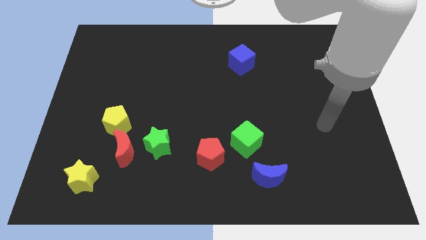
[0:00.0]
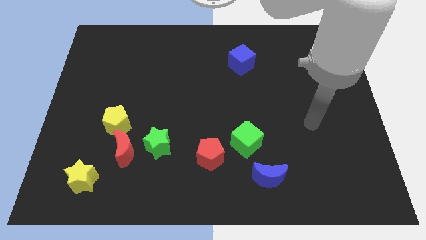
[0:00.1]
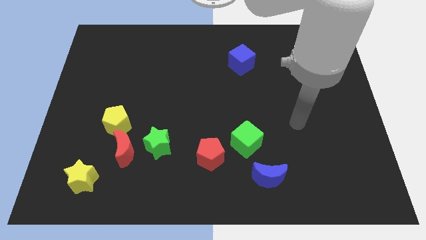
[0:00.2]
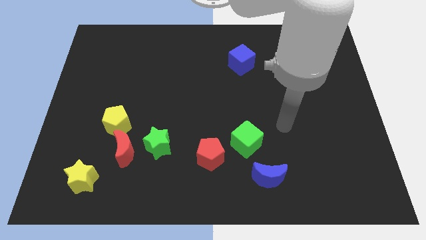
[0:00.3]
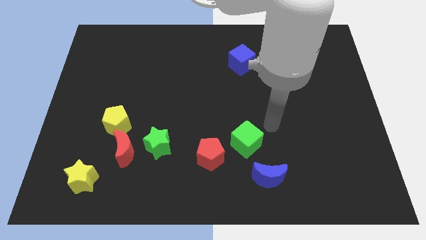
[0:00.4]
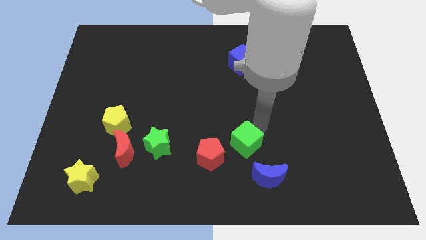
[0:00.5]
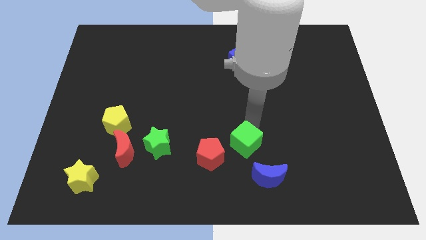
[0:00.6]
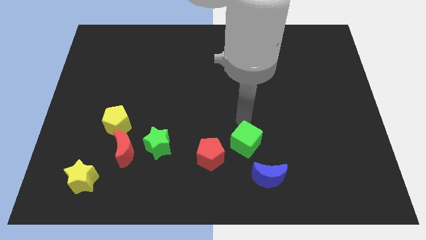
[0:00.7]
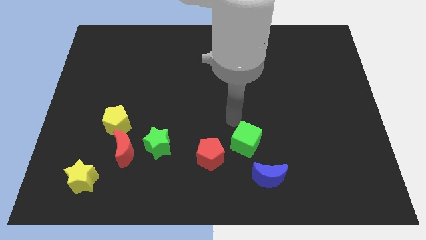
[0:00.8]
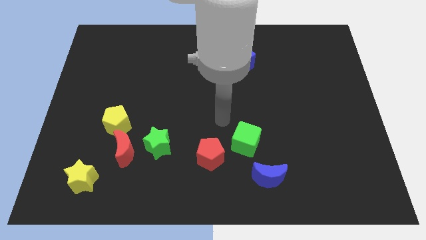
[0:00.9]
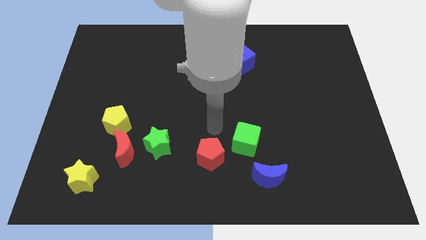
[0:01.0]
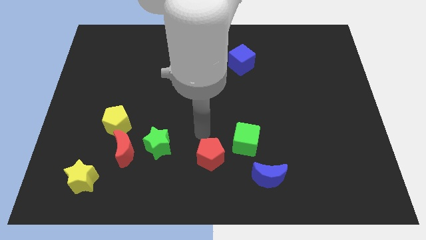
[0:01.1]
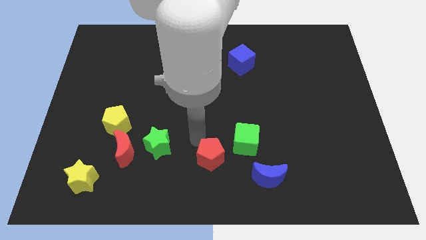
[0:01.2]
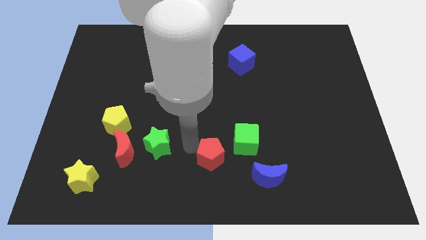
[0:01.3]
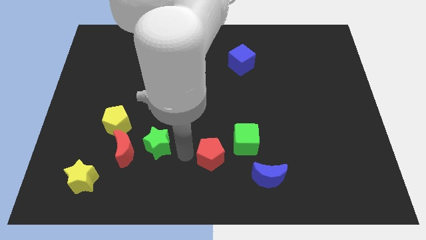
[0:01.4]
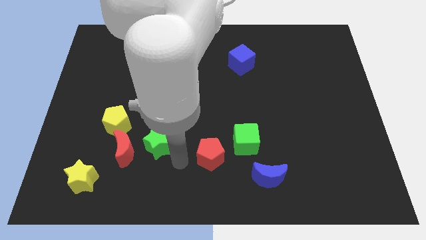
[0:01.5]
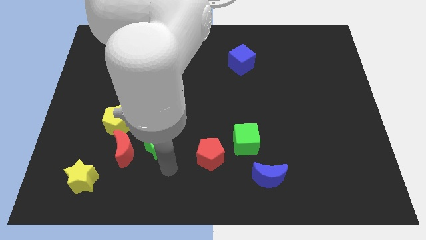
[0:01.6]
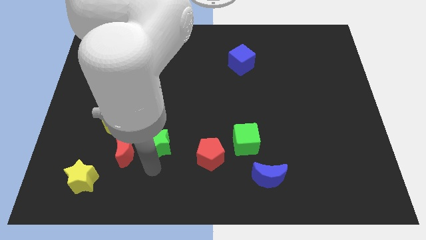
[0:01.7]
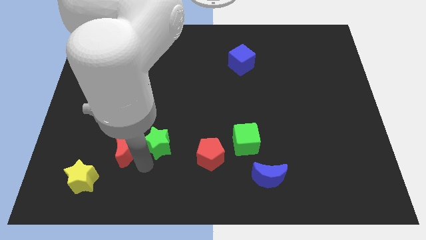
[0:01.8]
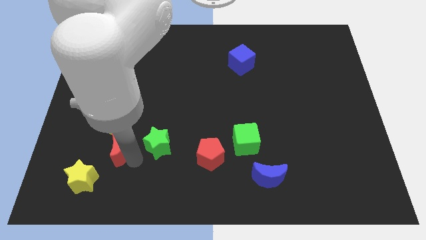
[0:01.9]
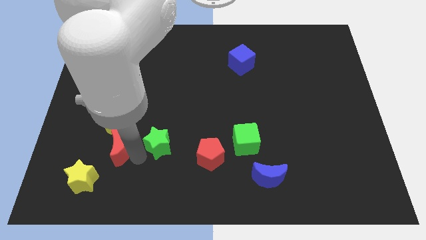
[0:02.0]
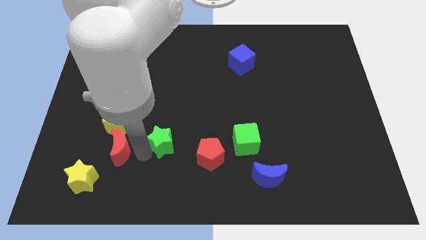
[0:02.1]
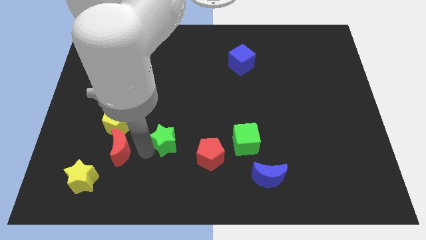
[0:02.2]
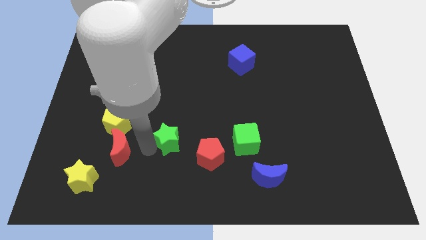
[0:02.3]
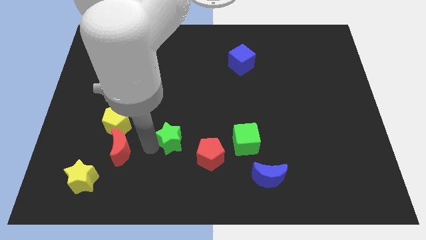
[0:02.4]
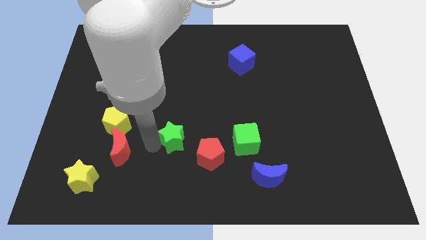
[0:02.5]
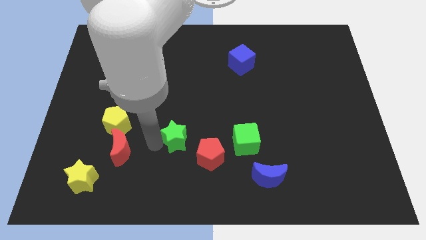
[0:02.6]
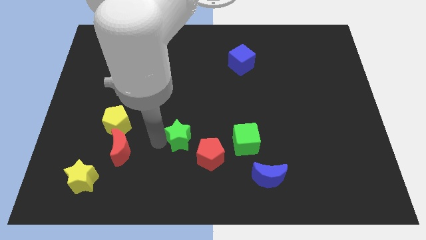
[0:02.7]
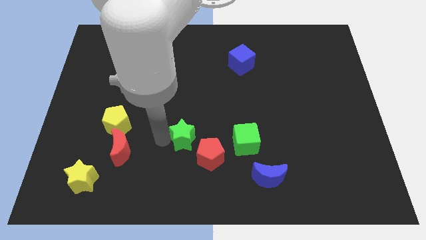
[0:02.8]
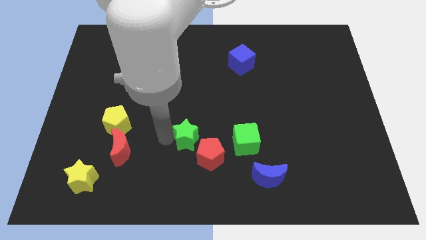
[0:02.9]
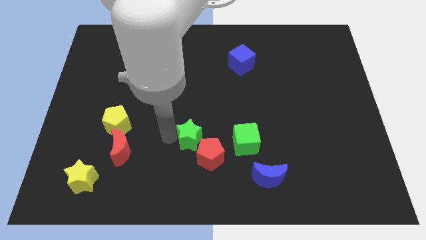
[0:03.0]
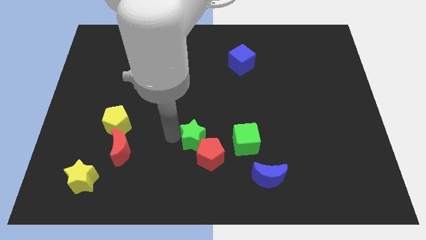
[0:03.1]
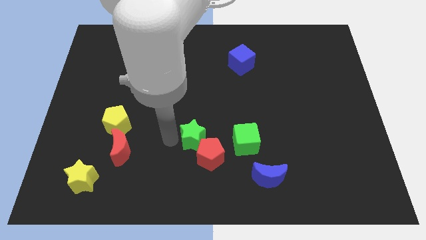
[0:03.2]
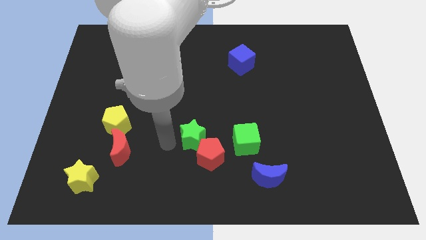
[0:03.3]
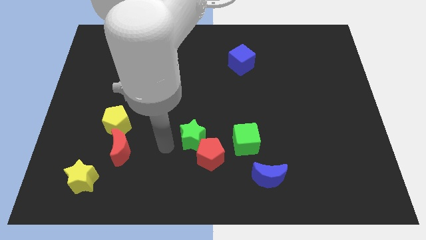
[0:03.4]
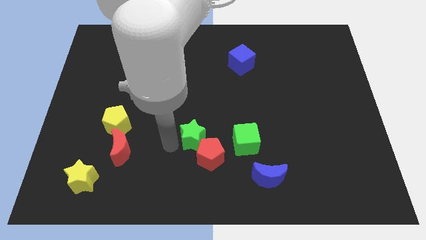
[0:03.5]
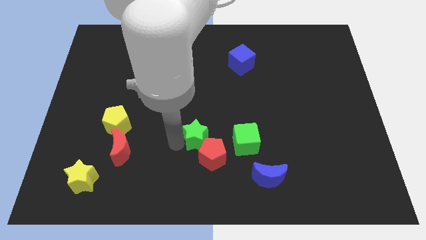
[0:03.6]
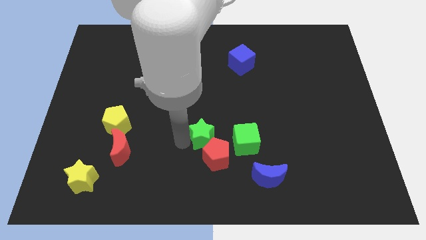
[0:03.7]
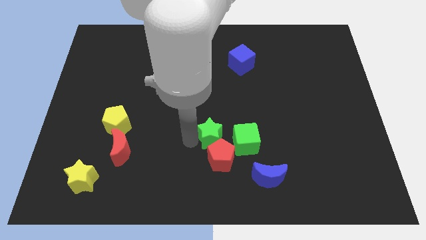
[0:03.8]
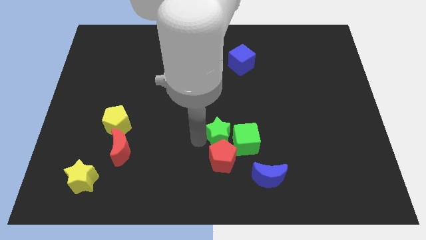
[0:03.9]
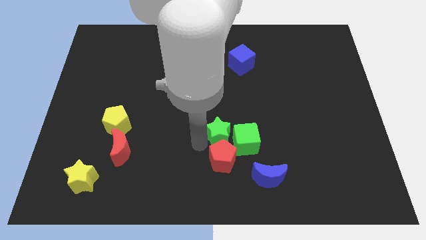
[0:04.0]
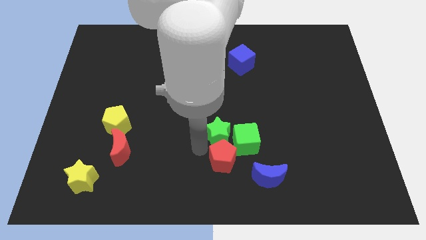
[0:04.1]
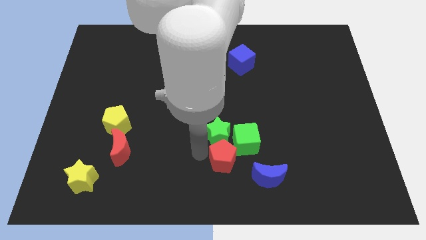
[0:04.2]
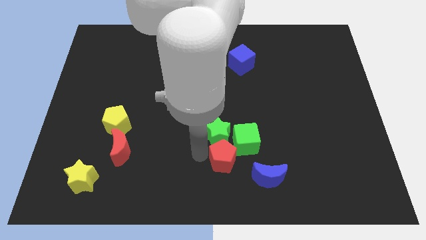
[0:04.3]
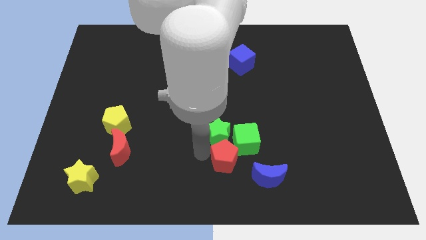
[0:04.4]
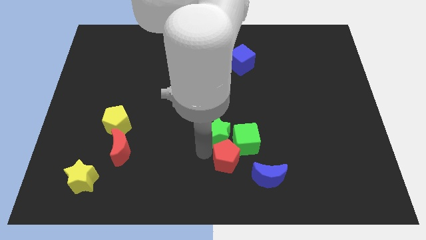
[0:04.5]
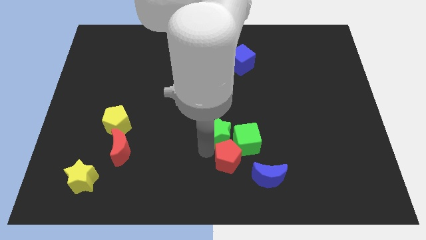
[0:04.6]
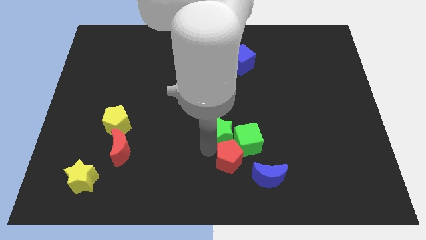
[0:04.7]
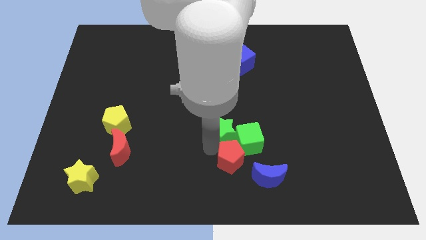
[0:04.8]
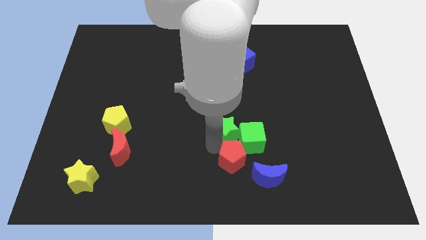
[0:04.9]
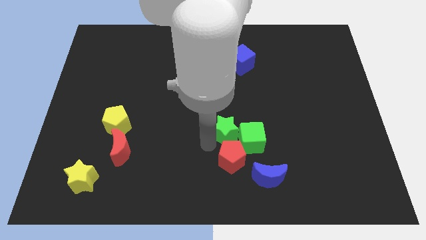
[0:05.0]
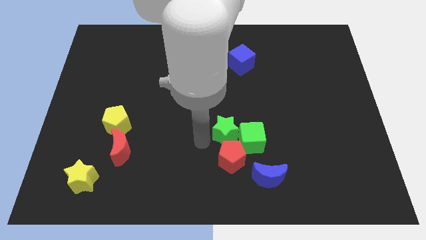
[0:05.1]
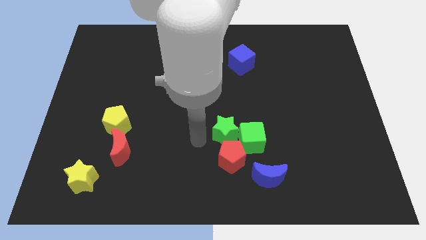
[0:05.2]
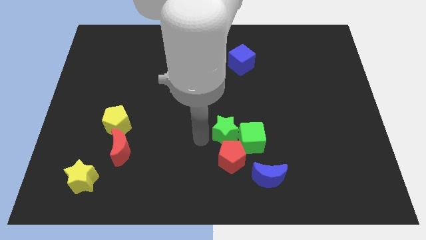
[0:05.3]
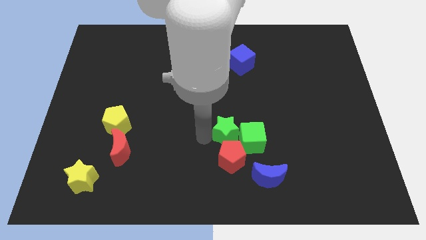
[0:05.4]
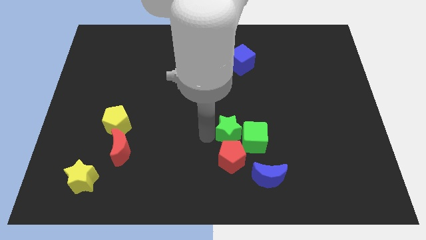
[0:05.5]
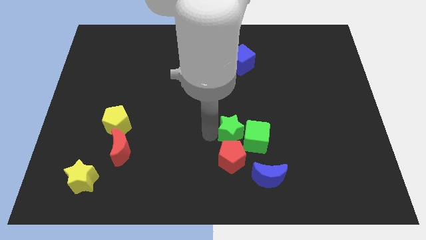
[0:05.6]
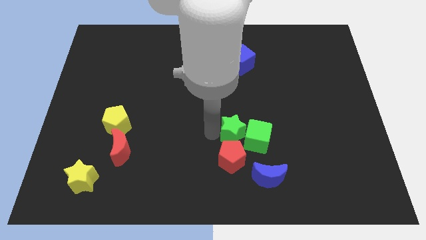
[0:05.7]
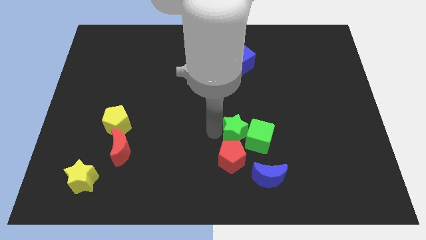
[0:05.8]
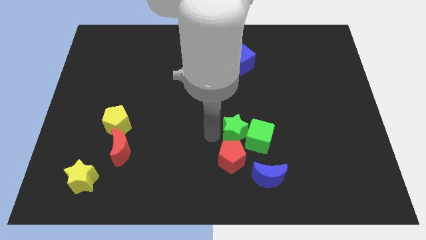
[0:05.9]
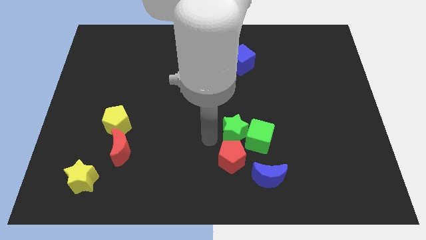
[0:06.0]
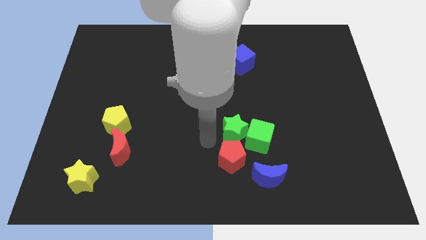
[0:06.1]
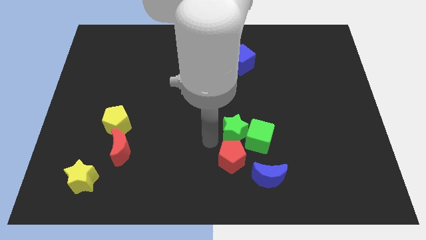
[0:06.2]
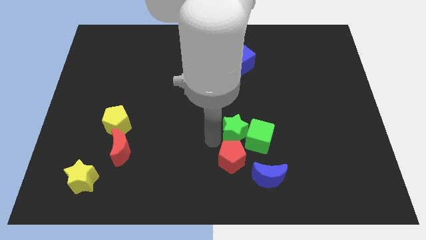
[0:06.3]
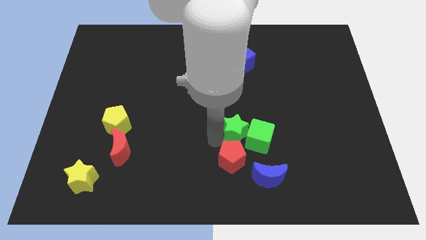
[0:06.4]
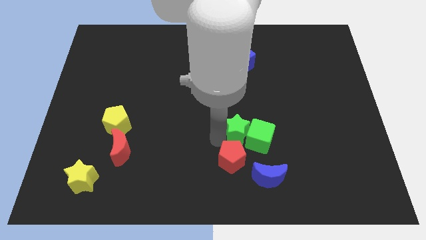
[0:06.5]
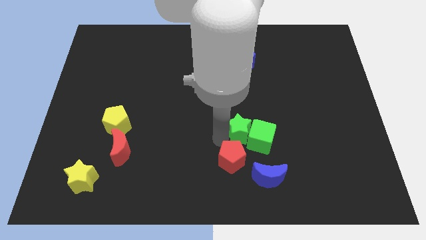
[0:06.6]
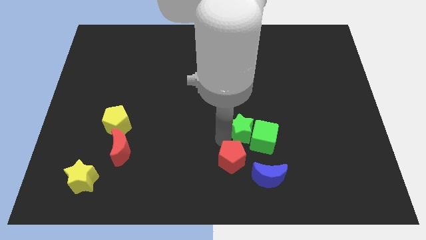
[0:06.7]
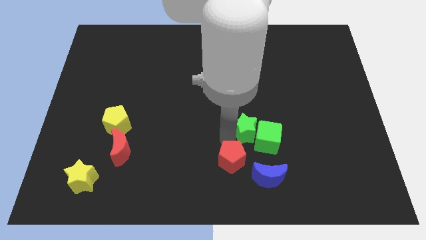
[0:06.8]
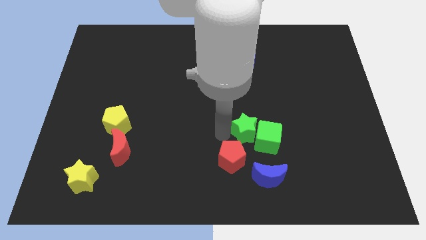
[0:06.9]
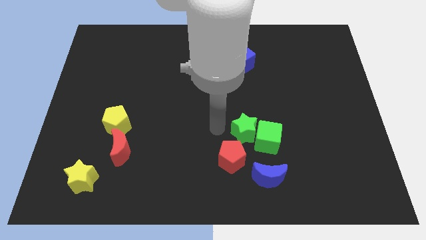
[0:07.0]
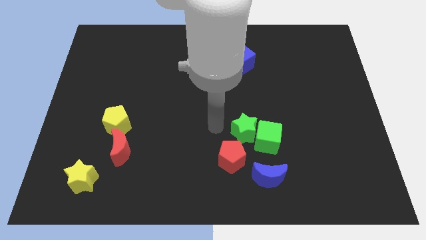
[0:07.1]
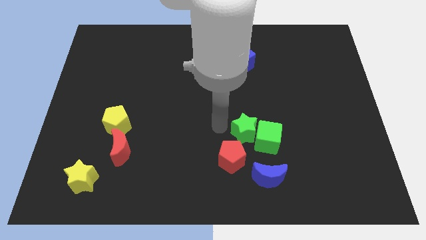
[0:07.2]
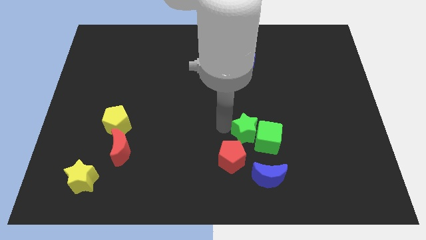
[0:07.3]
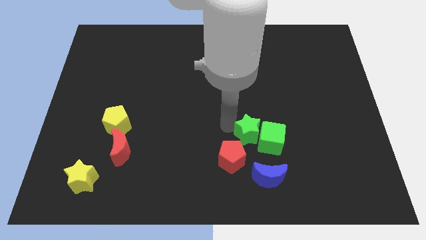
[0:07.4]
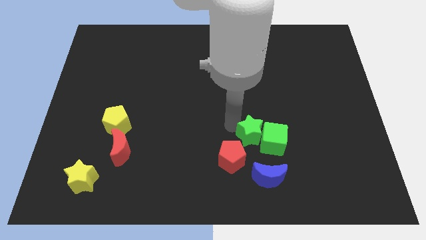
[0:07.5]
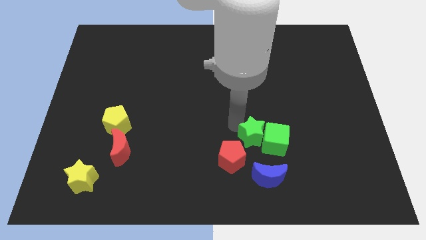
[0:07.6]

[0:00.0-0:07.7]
push the green star right

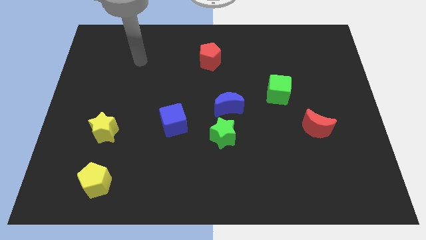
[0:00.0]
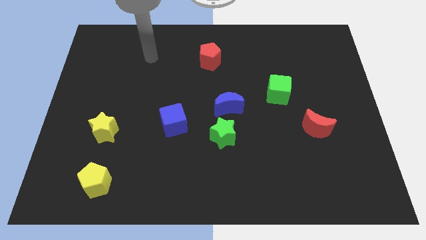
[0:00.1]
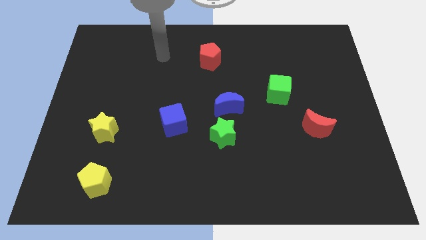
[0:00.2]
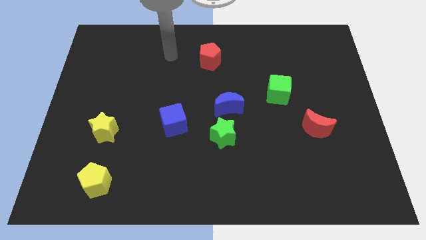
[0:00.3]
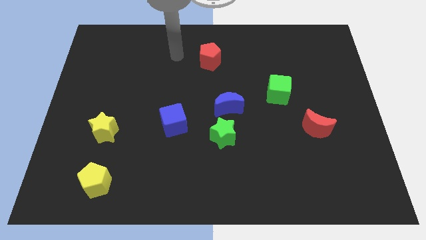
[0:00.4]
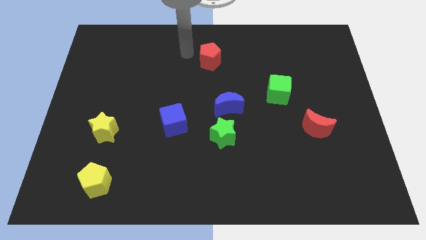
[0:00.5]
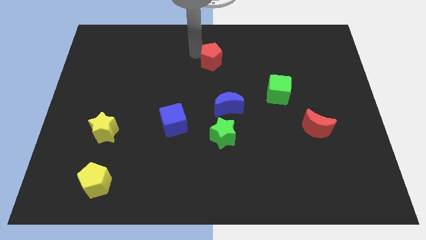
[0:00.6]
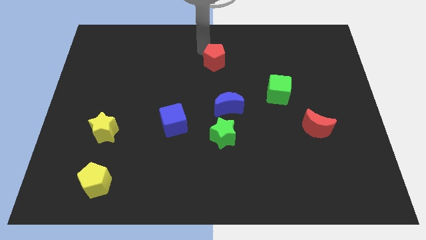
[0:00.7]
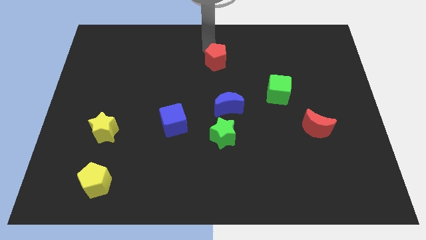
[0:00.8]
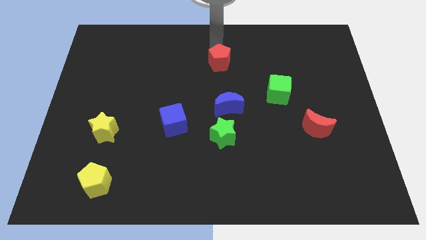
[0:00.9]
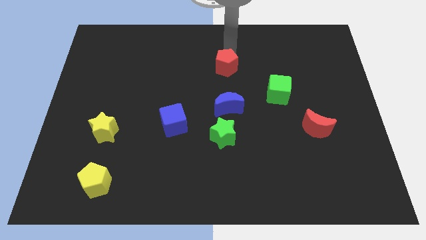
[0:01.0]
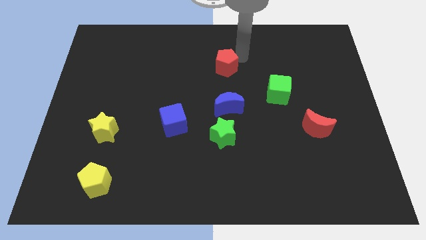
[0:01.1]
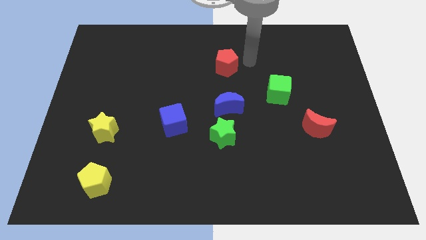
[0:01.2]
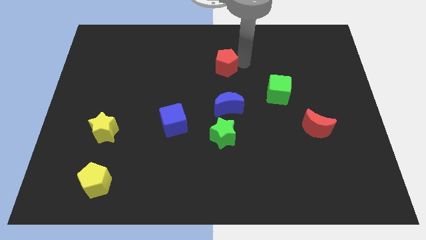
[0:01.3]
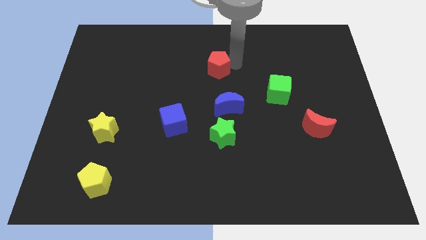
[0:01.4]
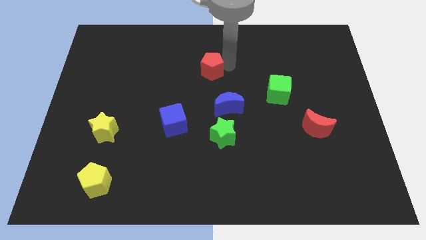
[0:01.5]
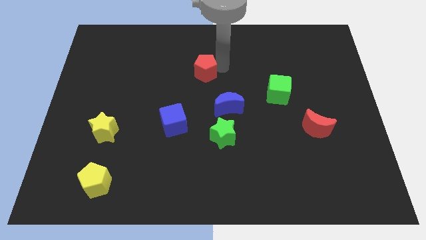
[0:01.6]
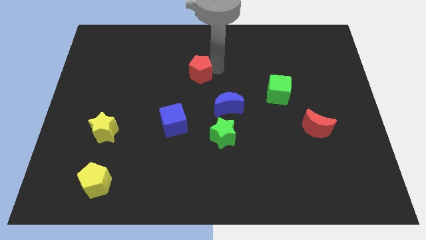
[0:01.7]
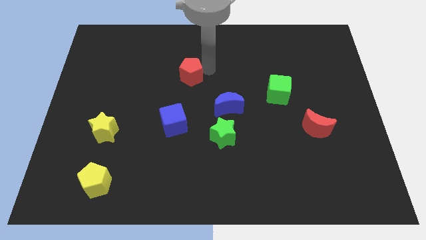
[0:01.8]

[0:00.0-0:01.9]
push the red pentagon down and then to the left a little
